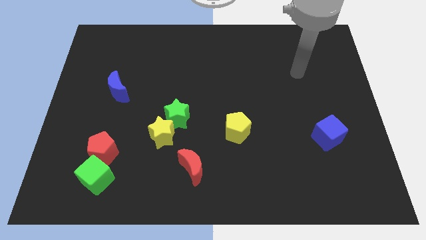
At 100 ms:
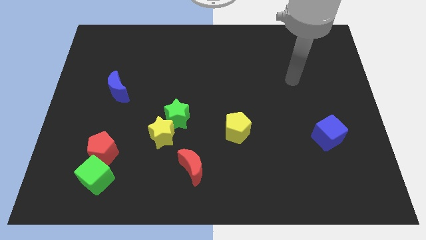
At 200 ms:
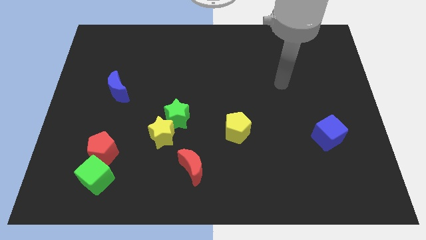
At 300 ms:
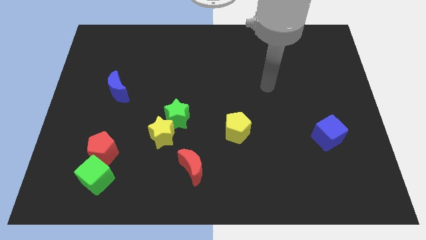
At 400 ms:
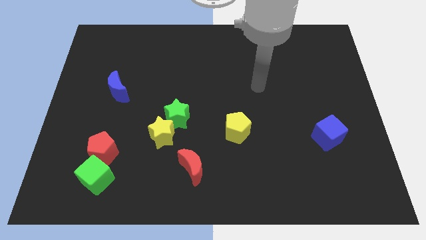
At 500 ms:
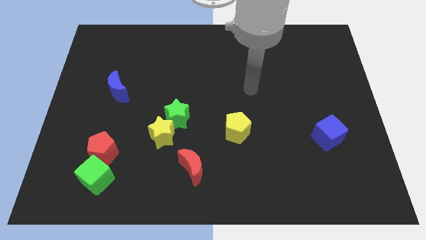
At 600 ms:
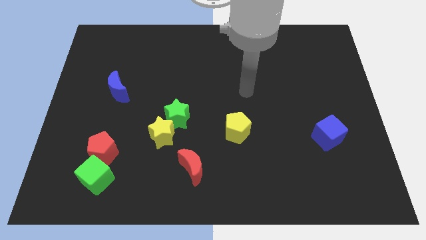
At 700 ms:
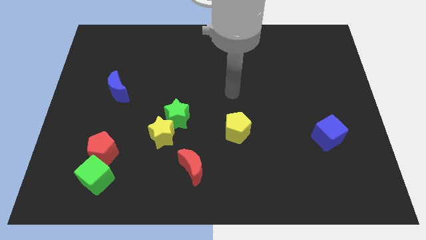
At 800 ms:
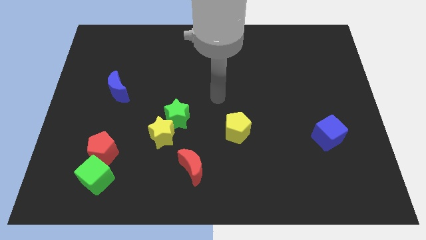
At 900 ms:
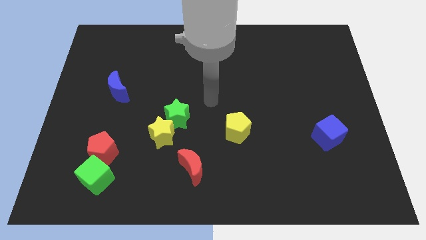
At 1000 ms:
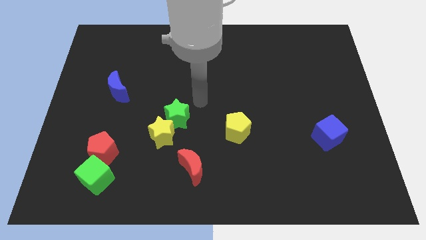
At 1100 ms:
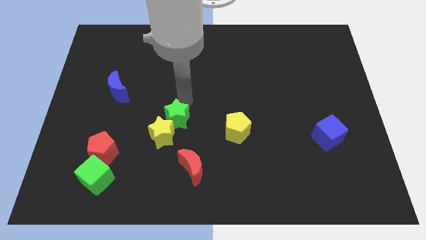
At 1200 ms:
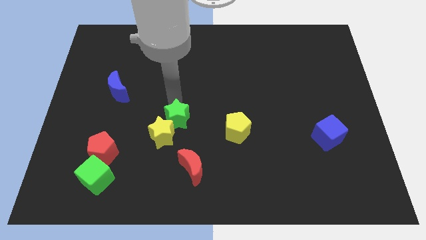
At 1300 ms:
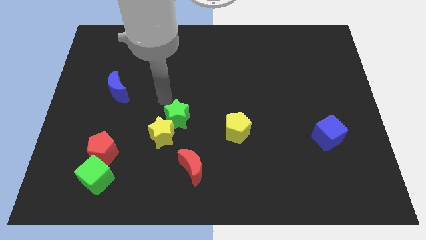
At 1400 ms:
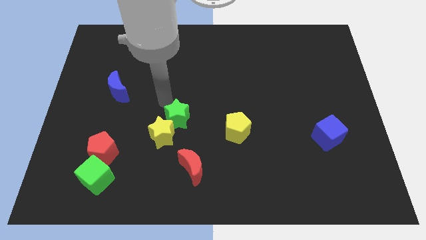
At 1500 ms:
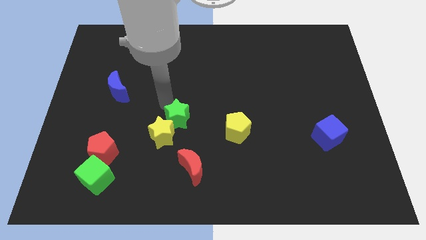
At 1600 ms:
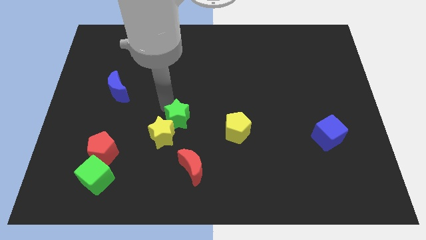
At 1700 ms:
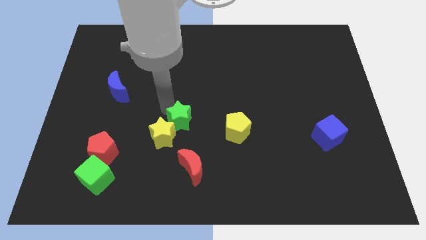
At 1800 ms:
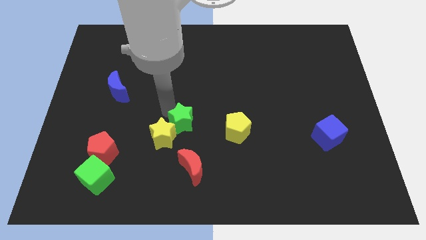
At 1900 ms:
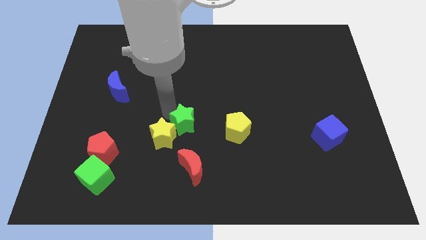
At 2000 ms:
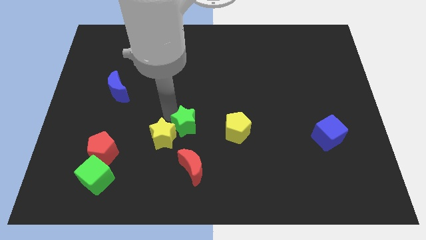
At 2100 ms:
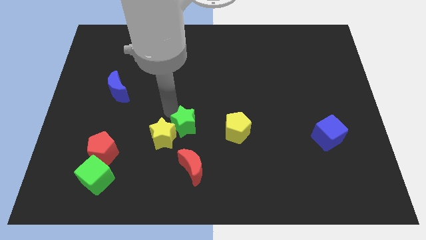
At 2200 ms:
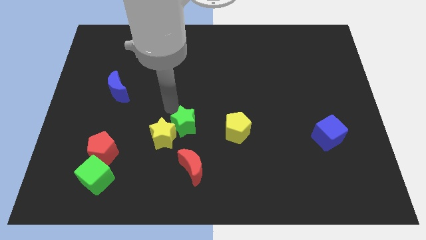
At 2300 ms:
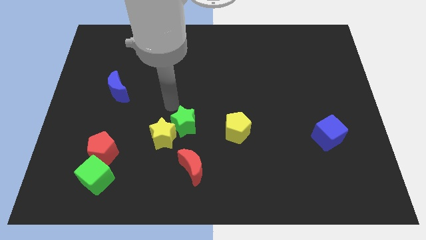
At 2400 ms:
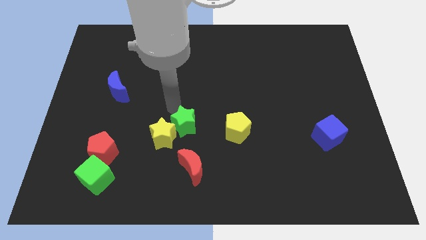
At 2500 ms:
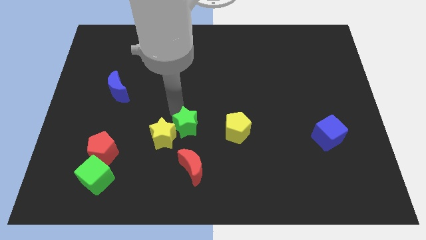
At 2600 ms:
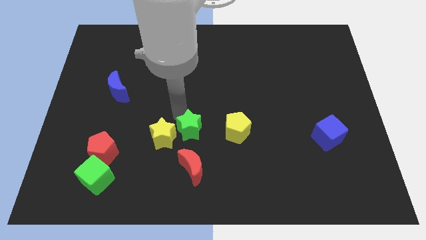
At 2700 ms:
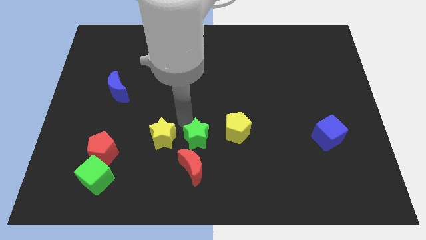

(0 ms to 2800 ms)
move the green star a little bit downwards and to the right

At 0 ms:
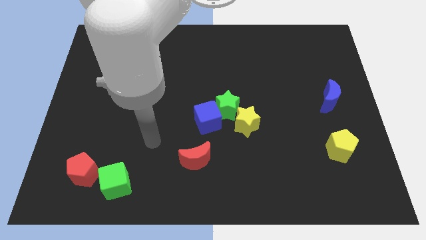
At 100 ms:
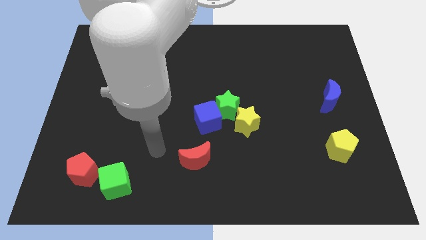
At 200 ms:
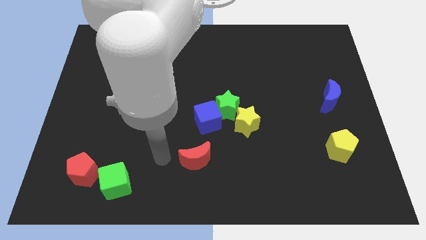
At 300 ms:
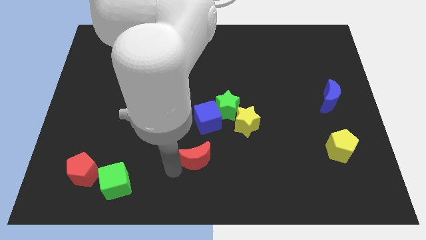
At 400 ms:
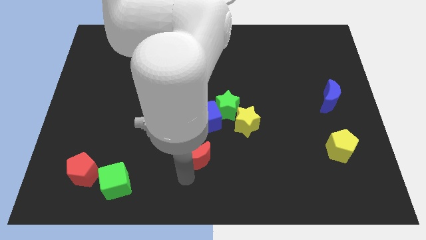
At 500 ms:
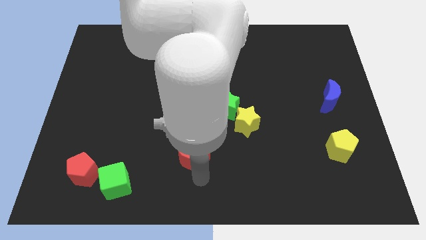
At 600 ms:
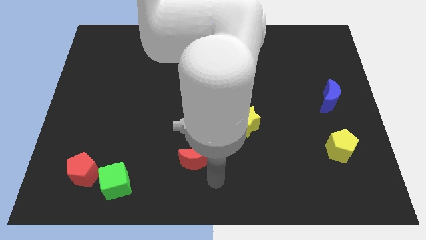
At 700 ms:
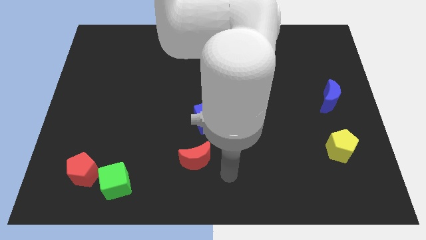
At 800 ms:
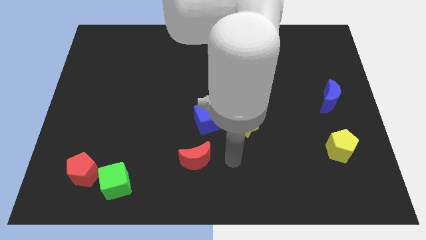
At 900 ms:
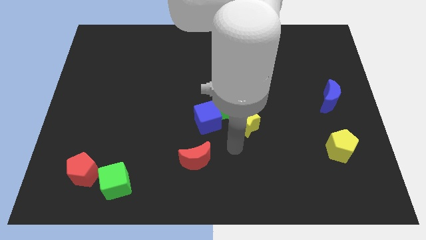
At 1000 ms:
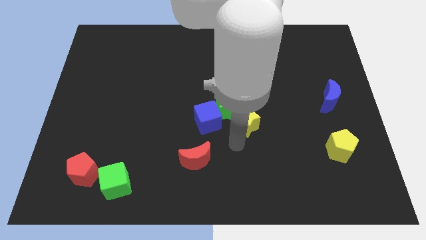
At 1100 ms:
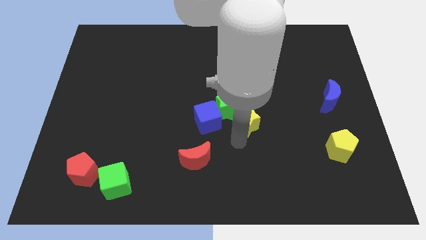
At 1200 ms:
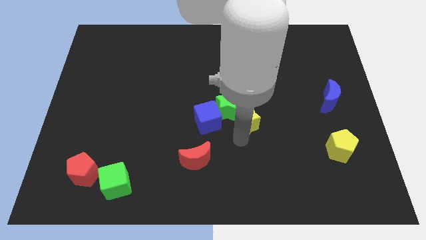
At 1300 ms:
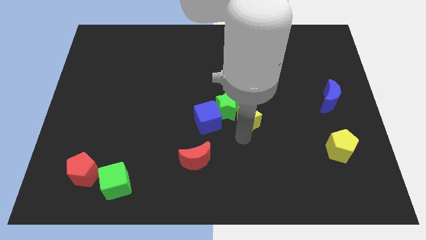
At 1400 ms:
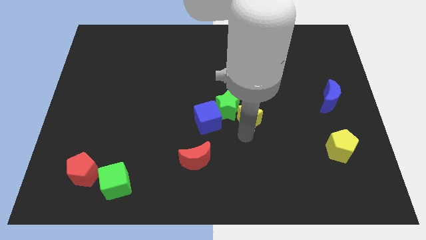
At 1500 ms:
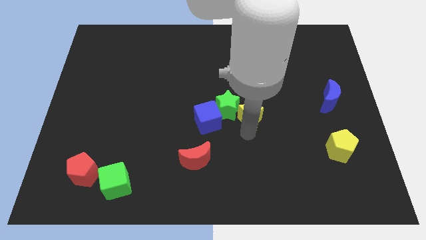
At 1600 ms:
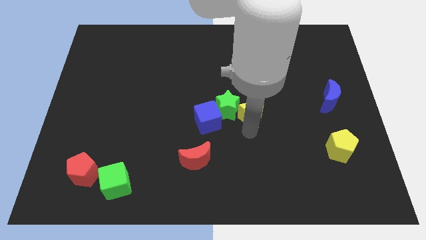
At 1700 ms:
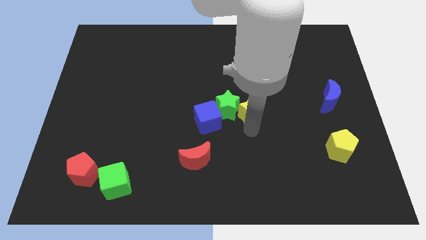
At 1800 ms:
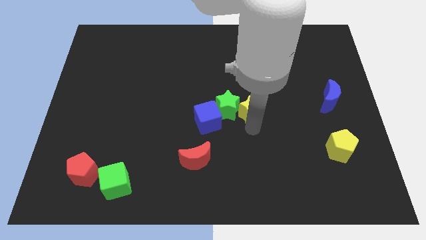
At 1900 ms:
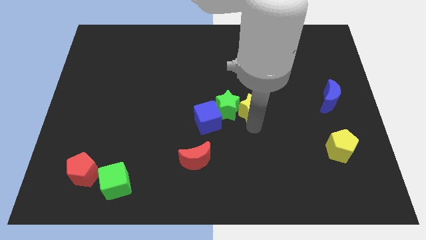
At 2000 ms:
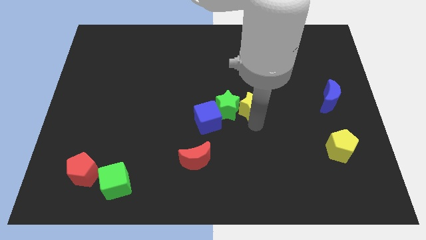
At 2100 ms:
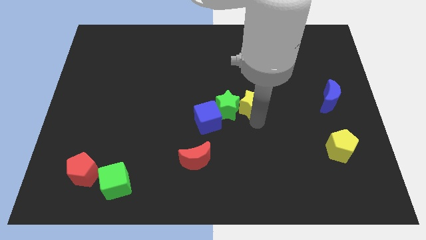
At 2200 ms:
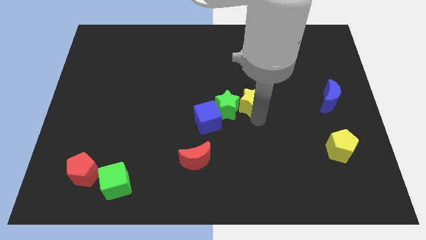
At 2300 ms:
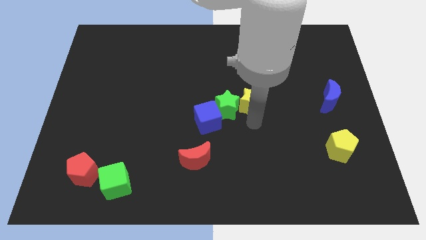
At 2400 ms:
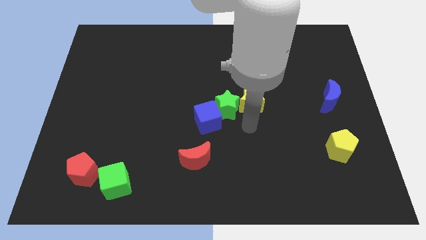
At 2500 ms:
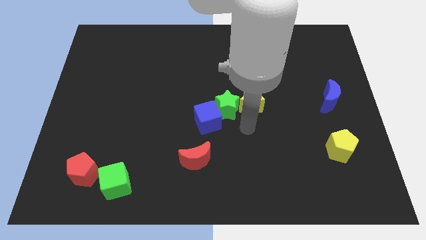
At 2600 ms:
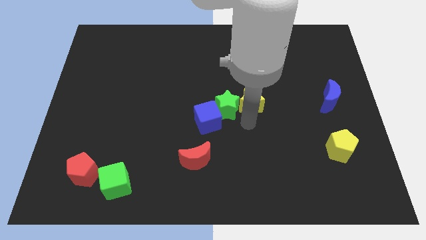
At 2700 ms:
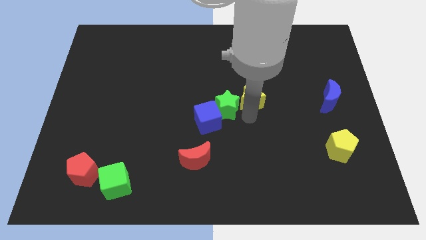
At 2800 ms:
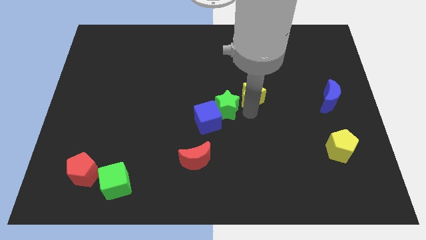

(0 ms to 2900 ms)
slightly move the yellow star up

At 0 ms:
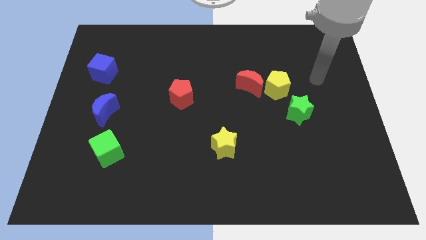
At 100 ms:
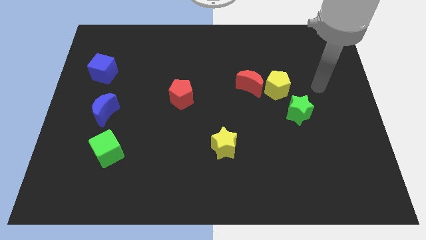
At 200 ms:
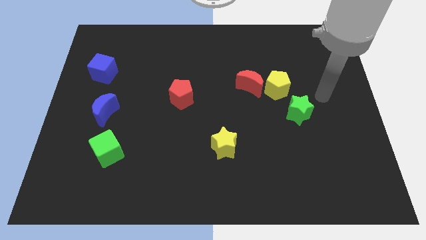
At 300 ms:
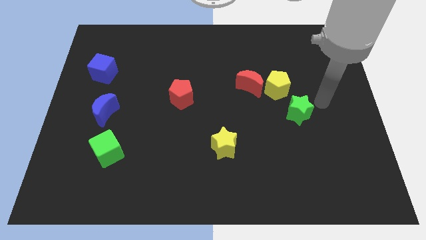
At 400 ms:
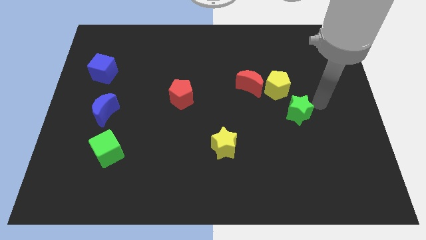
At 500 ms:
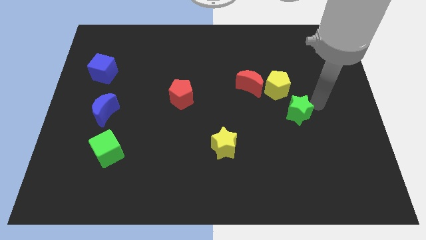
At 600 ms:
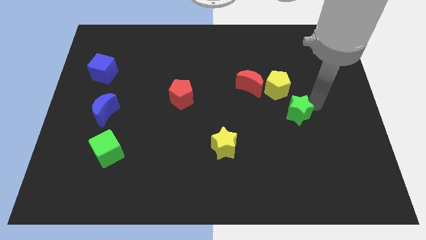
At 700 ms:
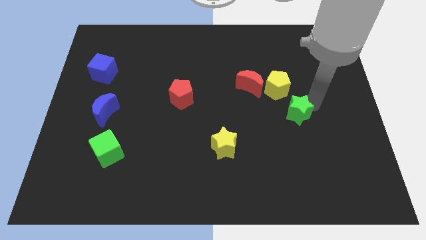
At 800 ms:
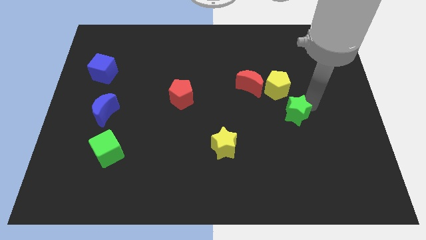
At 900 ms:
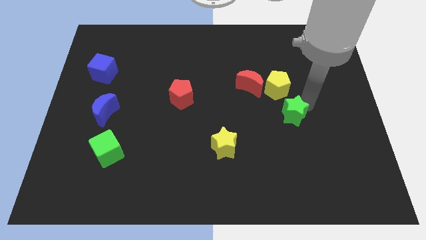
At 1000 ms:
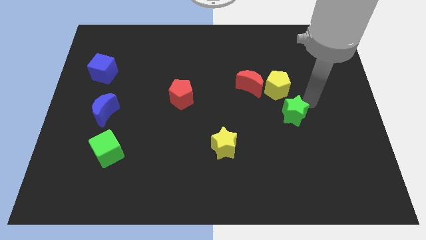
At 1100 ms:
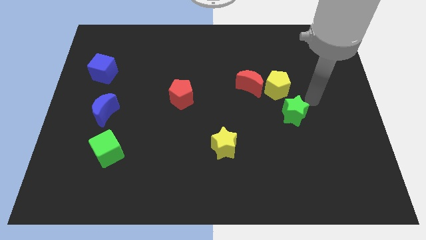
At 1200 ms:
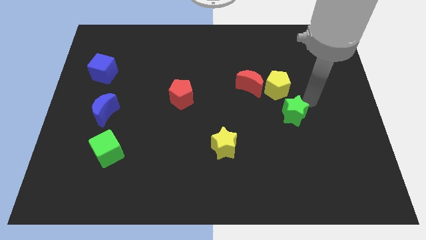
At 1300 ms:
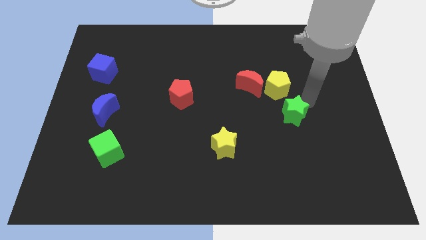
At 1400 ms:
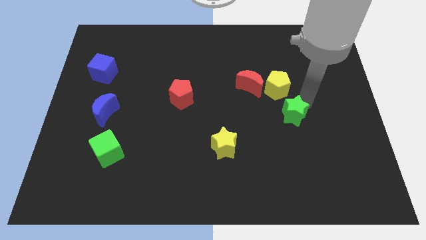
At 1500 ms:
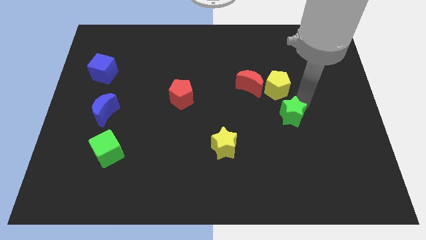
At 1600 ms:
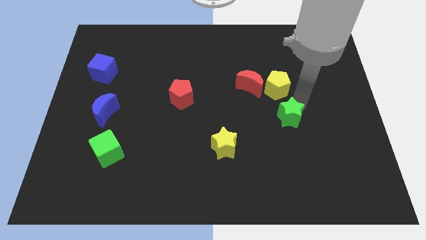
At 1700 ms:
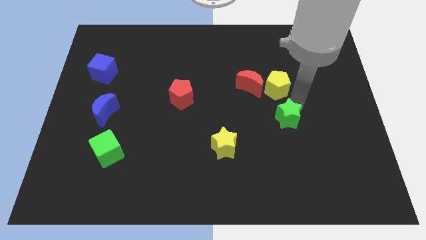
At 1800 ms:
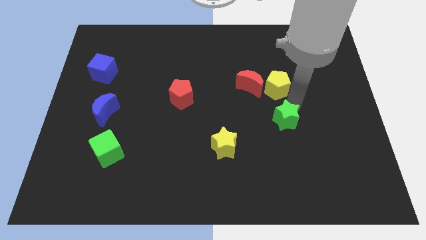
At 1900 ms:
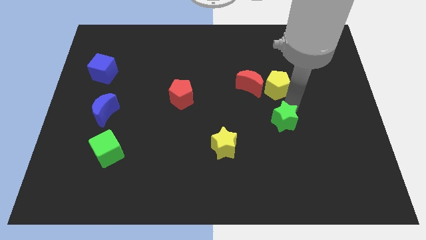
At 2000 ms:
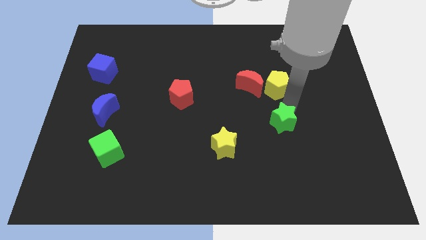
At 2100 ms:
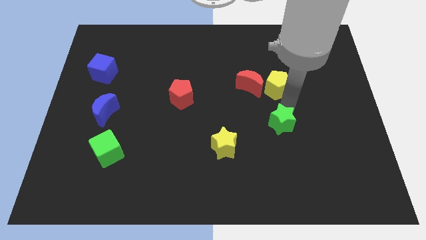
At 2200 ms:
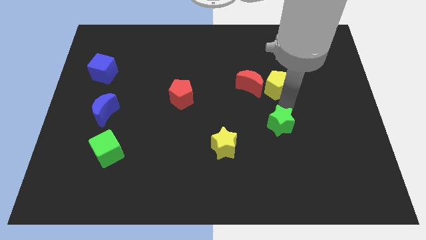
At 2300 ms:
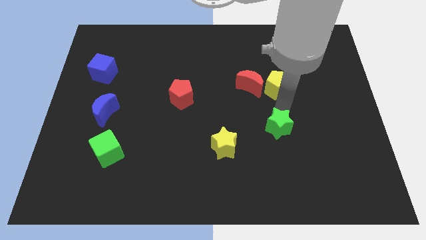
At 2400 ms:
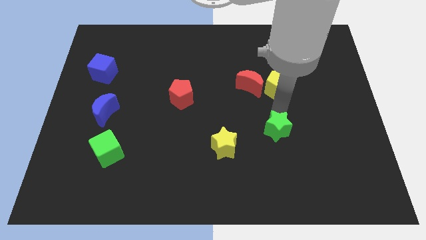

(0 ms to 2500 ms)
slightly move the green star down and then left
